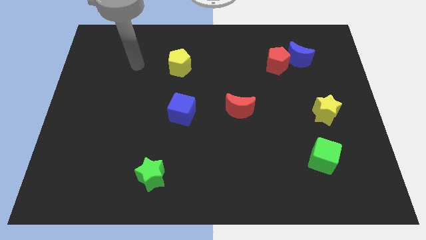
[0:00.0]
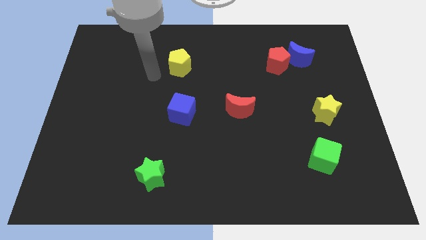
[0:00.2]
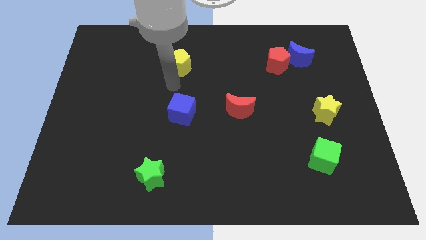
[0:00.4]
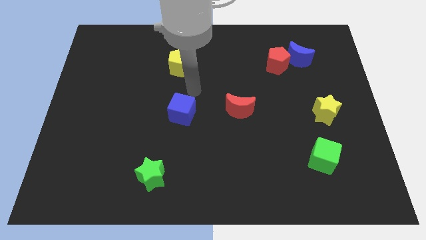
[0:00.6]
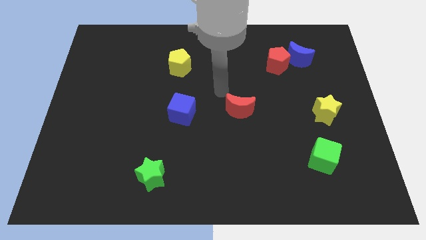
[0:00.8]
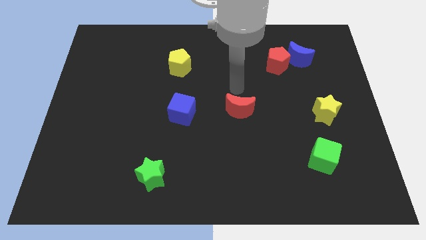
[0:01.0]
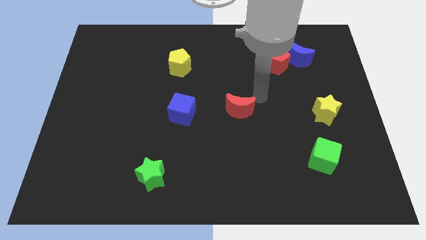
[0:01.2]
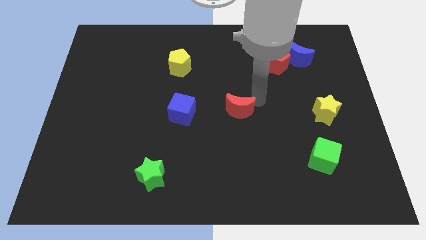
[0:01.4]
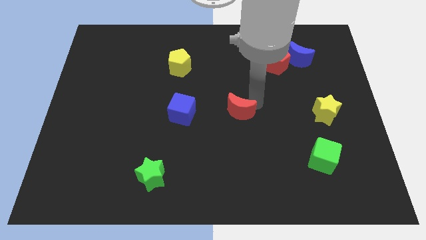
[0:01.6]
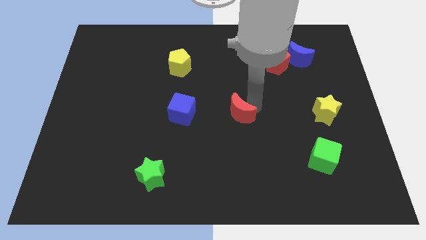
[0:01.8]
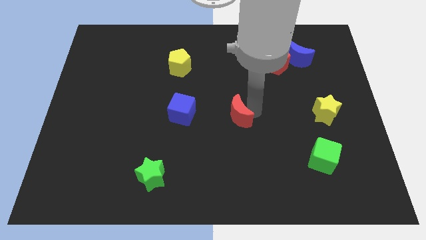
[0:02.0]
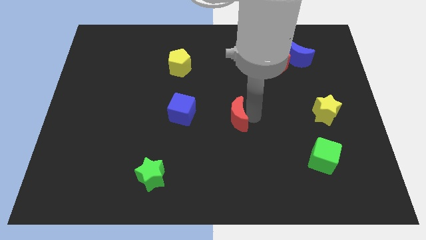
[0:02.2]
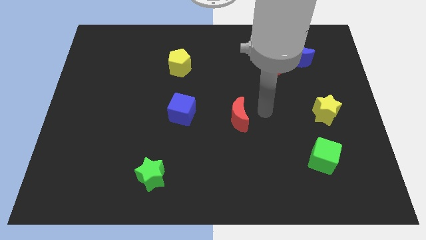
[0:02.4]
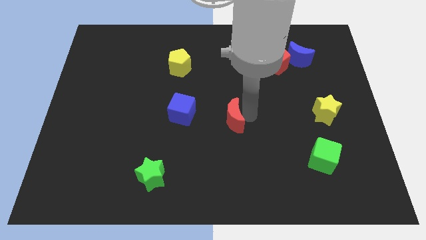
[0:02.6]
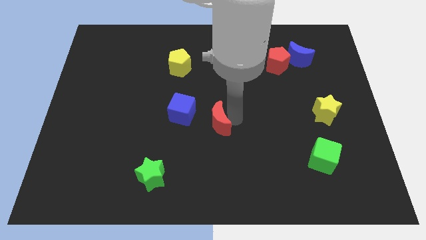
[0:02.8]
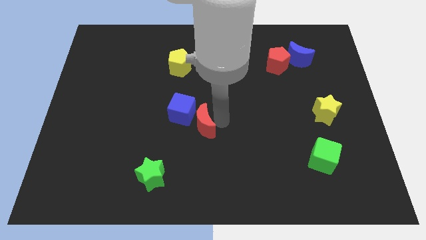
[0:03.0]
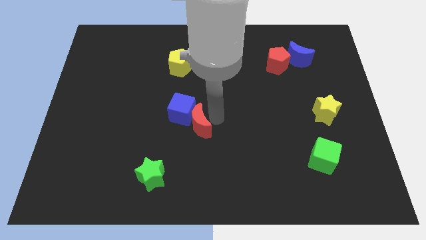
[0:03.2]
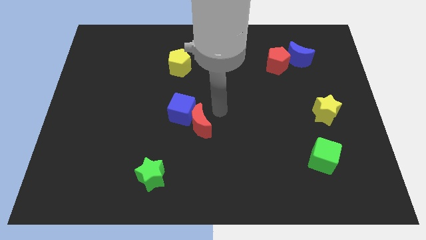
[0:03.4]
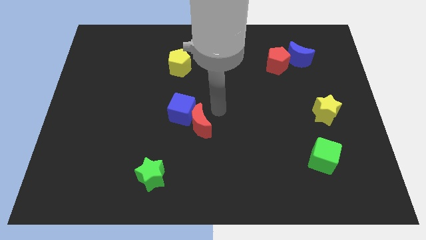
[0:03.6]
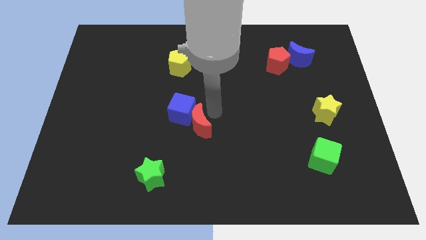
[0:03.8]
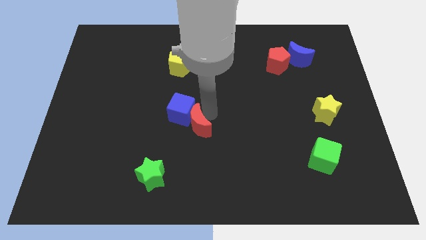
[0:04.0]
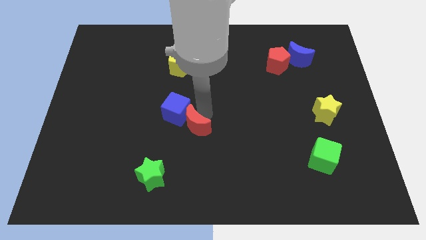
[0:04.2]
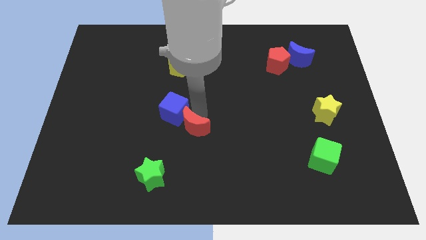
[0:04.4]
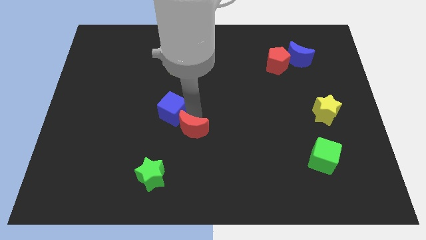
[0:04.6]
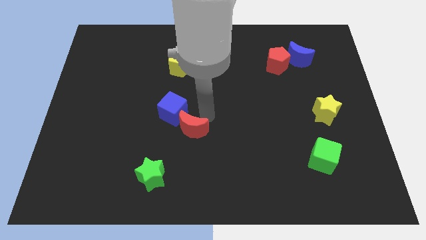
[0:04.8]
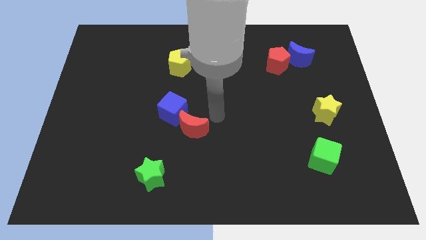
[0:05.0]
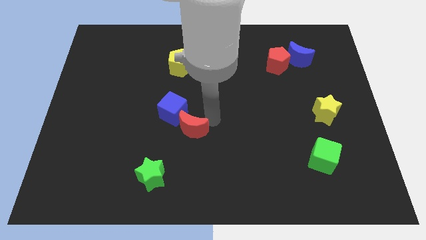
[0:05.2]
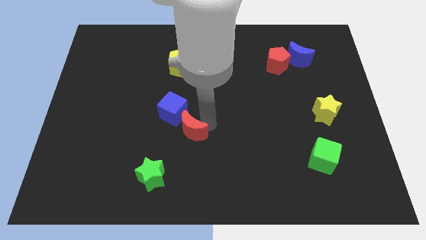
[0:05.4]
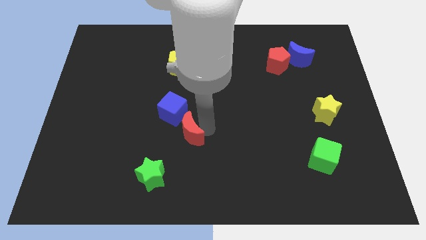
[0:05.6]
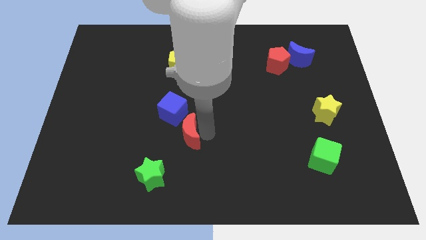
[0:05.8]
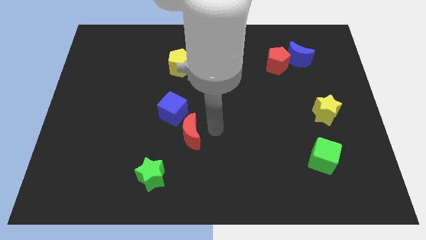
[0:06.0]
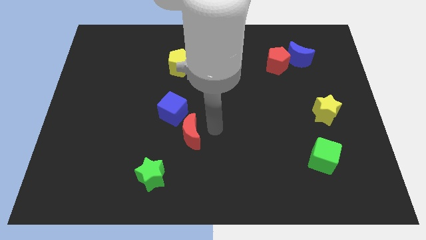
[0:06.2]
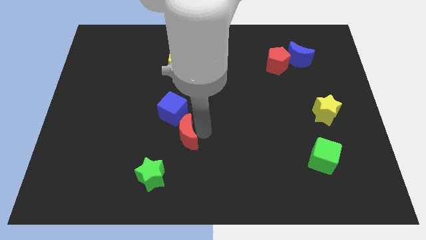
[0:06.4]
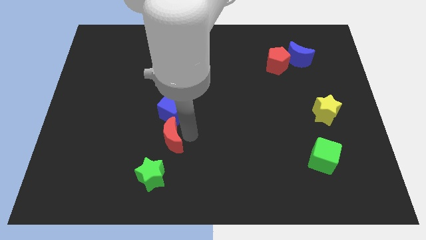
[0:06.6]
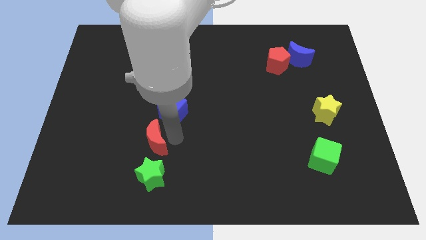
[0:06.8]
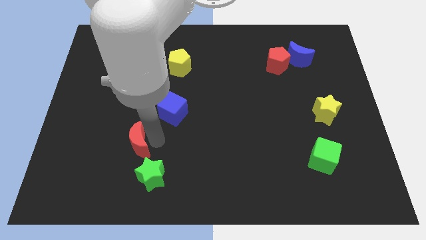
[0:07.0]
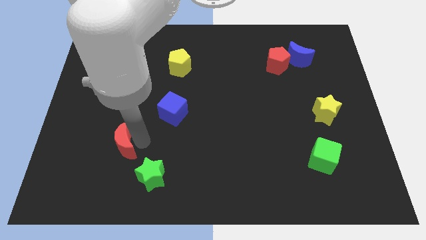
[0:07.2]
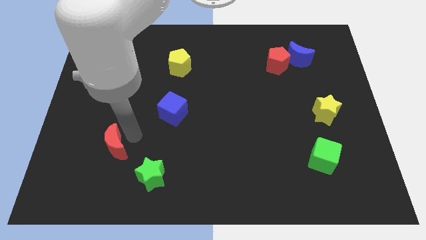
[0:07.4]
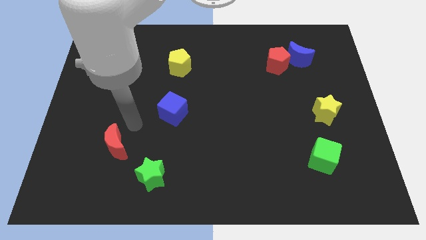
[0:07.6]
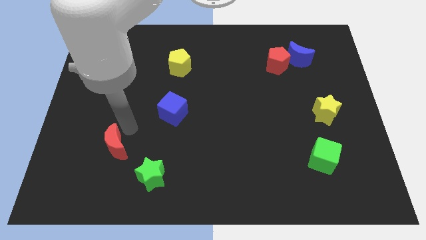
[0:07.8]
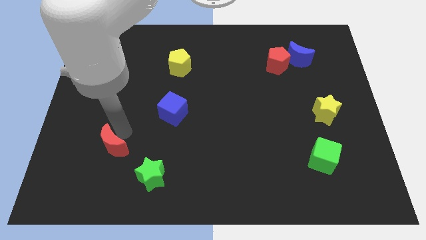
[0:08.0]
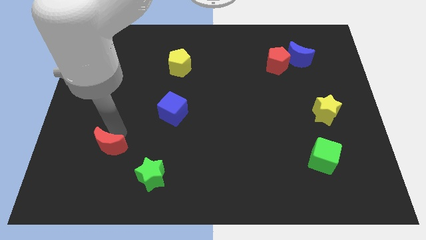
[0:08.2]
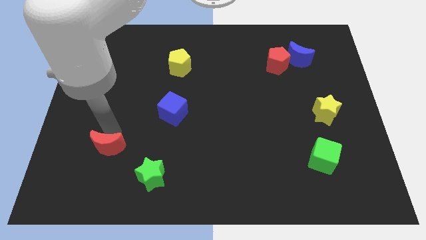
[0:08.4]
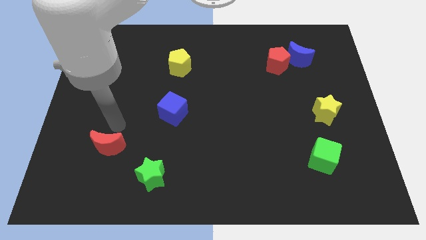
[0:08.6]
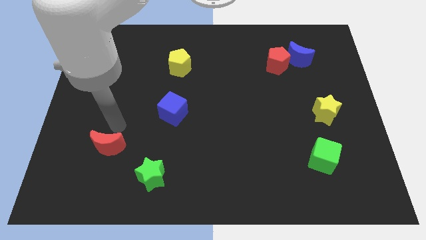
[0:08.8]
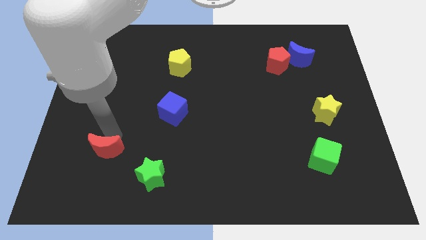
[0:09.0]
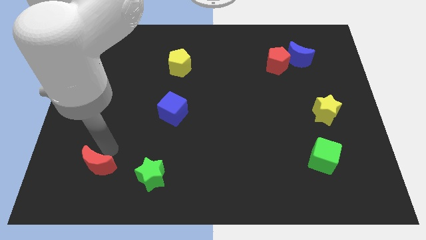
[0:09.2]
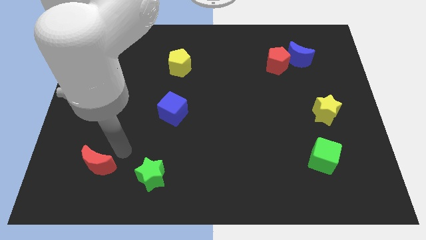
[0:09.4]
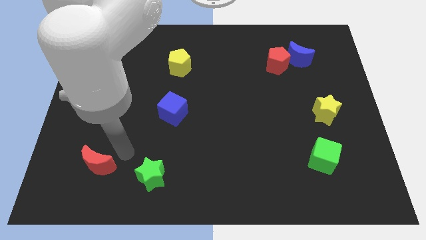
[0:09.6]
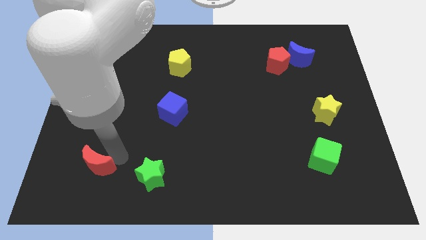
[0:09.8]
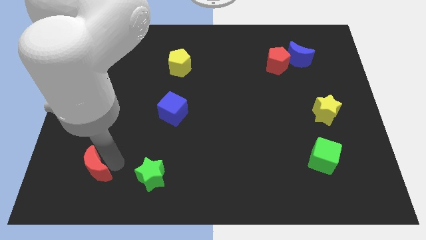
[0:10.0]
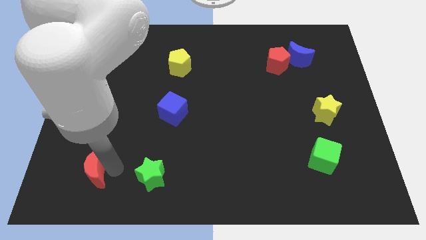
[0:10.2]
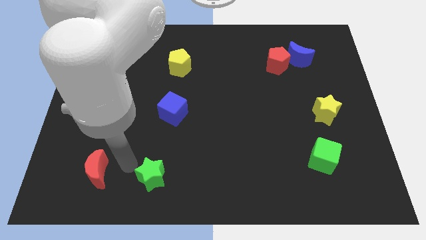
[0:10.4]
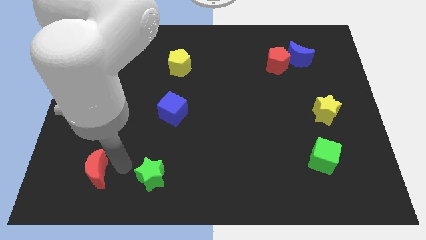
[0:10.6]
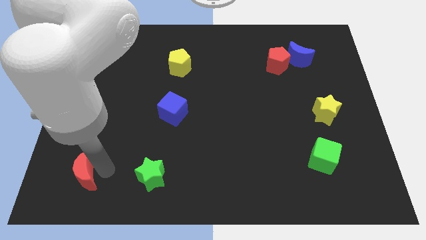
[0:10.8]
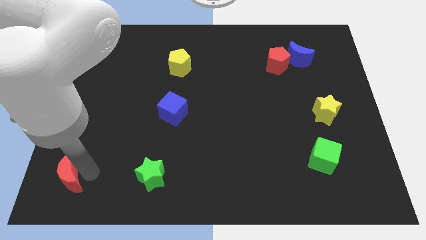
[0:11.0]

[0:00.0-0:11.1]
slide the red moon to the bottom left of the board

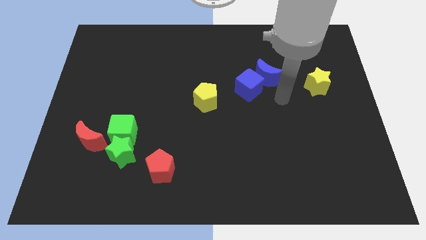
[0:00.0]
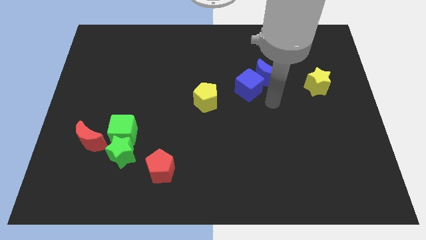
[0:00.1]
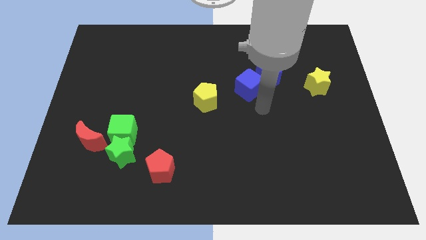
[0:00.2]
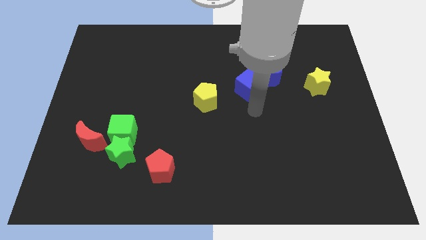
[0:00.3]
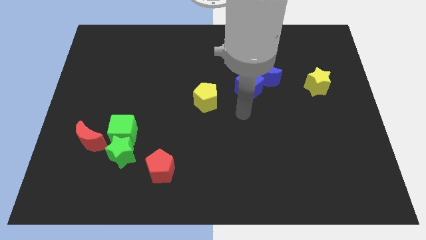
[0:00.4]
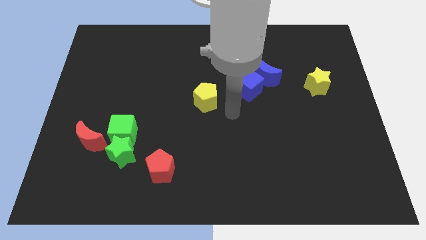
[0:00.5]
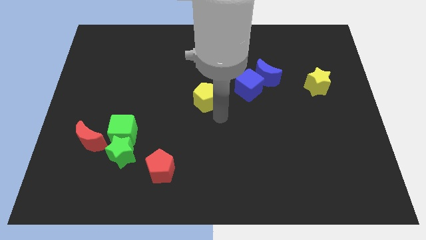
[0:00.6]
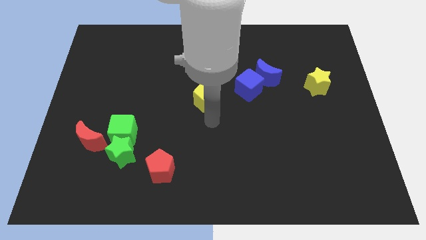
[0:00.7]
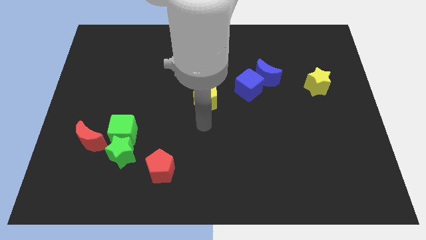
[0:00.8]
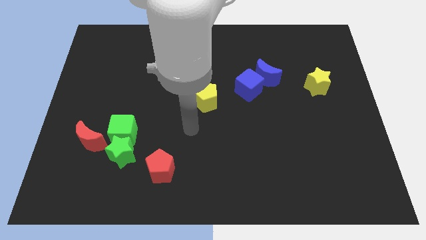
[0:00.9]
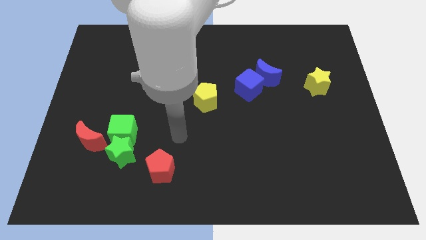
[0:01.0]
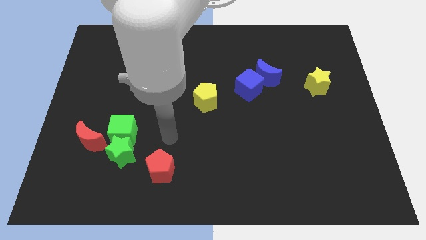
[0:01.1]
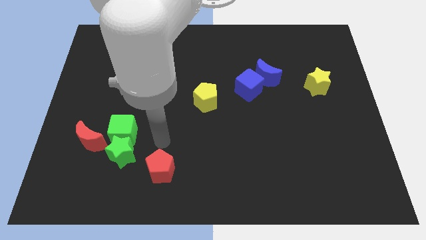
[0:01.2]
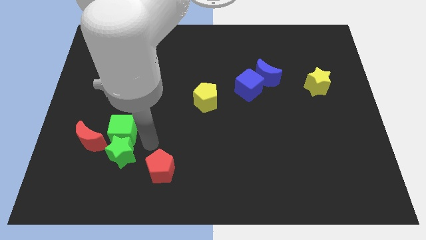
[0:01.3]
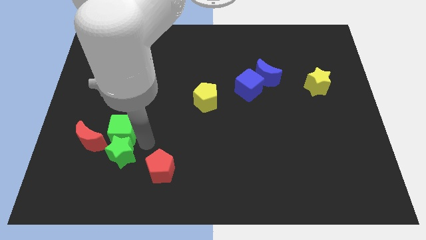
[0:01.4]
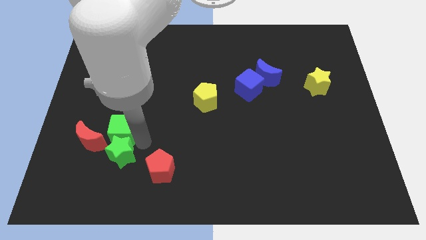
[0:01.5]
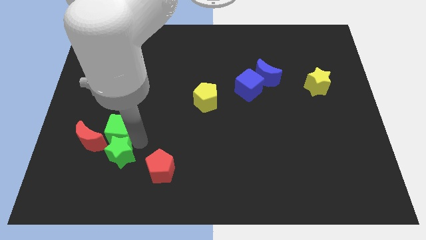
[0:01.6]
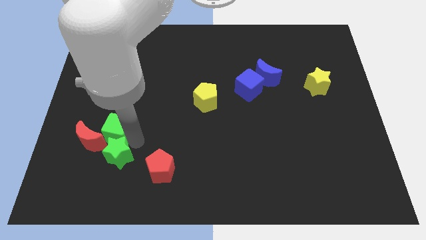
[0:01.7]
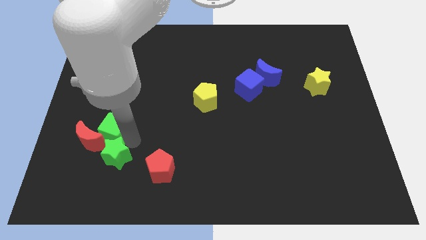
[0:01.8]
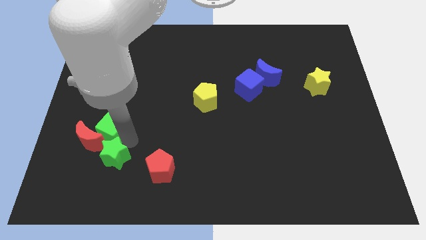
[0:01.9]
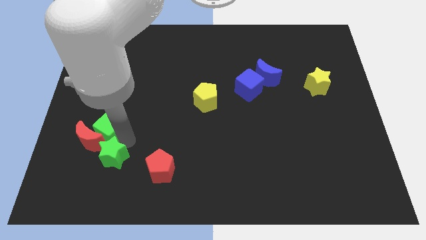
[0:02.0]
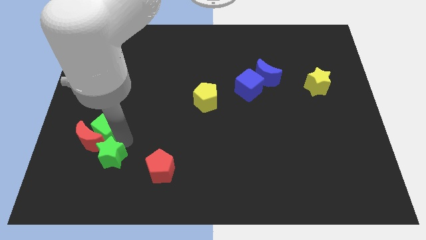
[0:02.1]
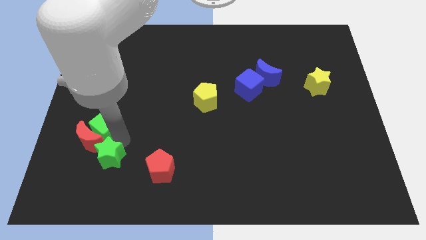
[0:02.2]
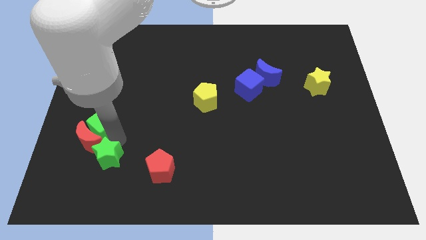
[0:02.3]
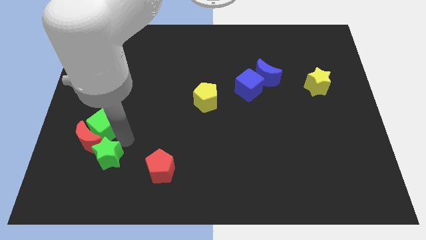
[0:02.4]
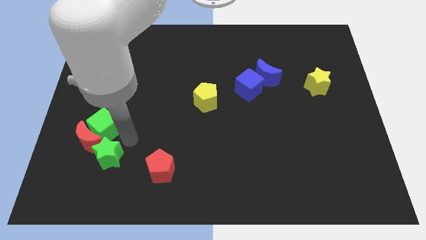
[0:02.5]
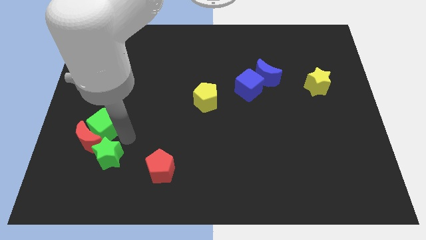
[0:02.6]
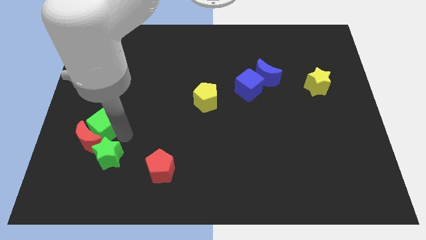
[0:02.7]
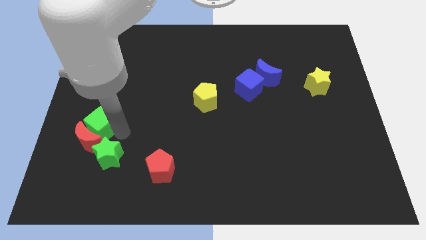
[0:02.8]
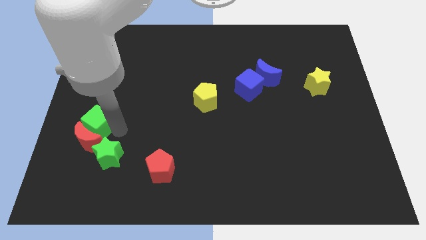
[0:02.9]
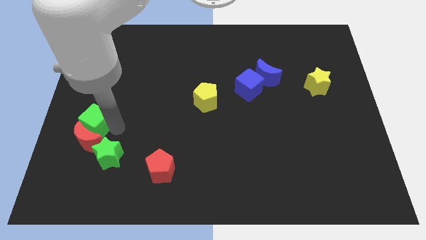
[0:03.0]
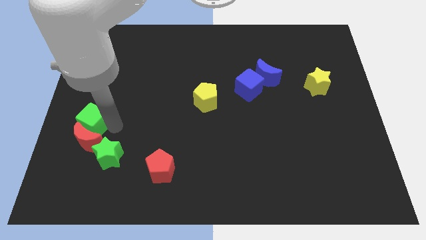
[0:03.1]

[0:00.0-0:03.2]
move the green cube to the left side
